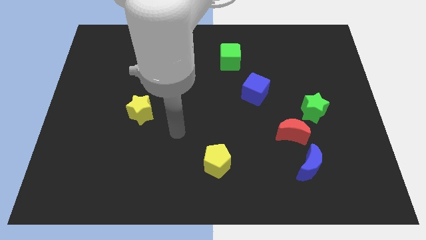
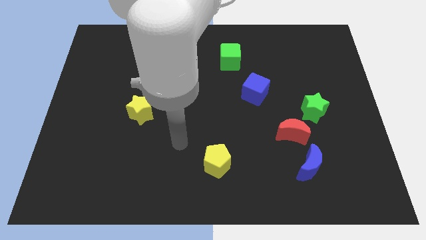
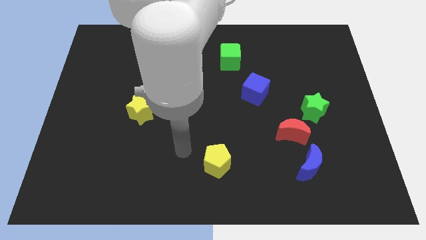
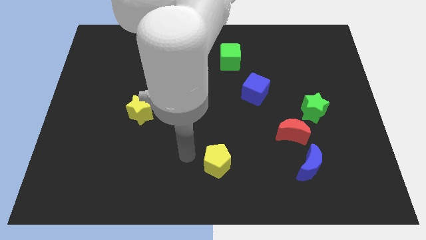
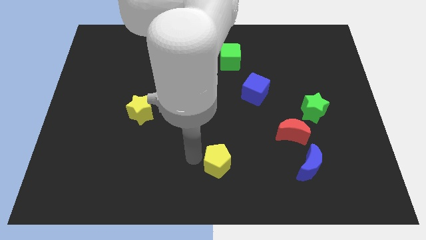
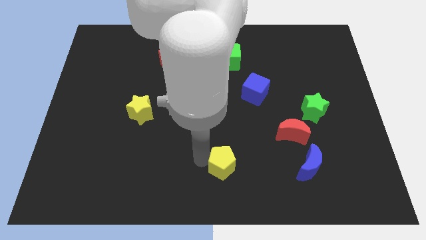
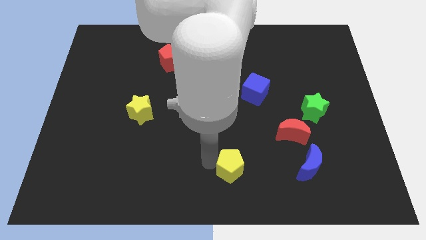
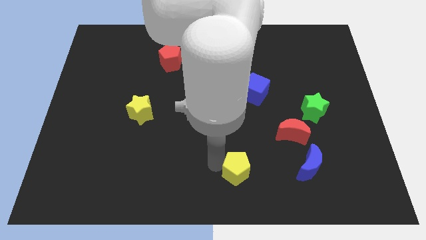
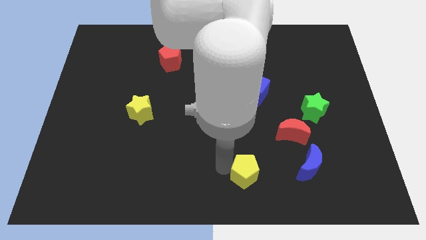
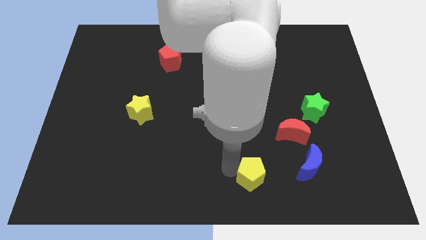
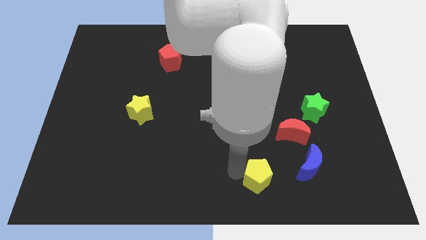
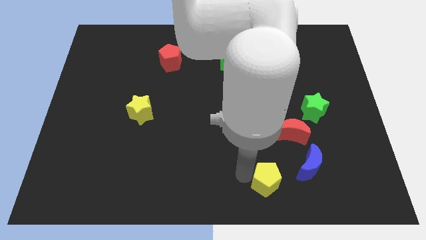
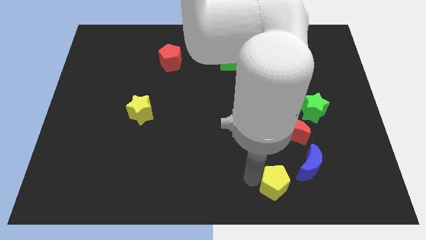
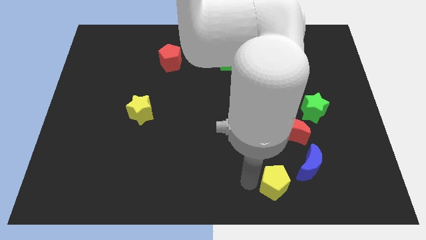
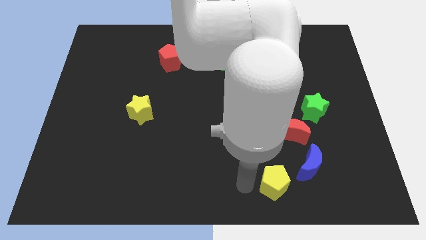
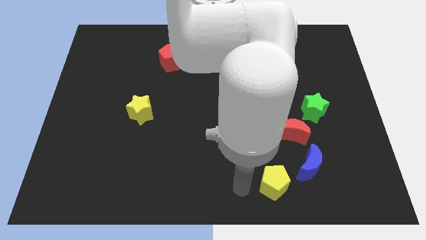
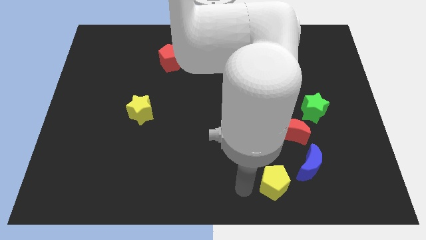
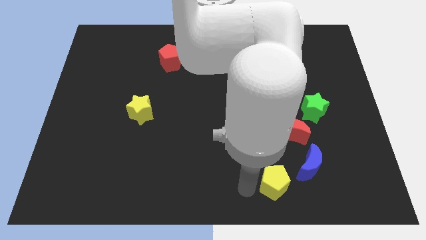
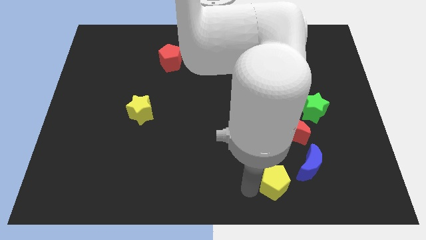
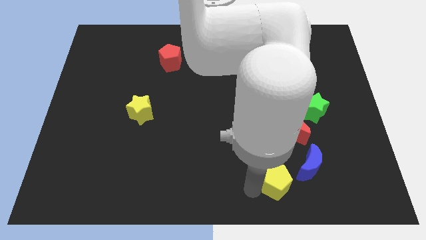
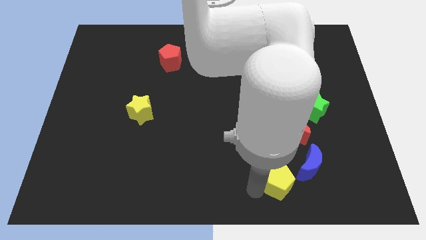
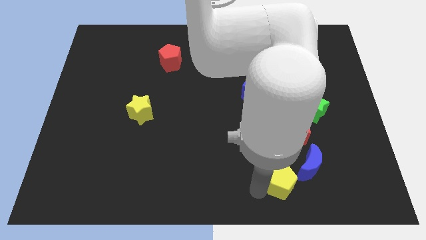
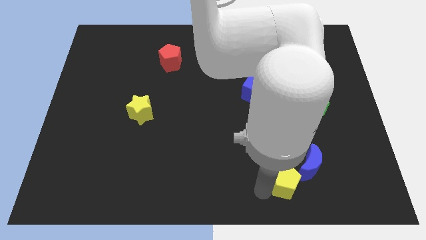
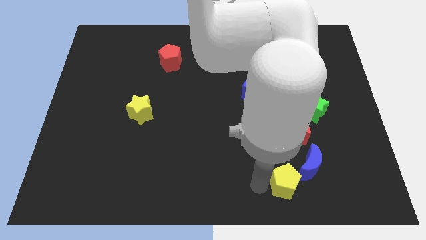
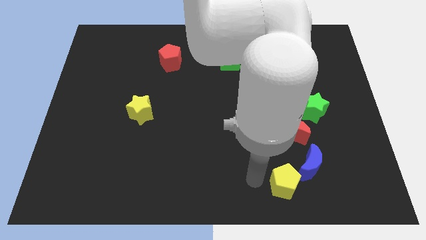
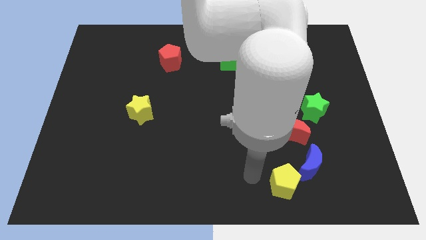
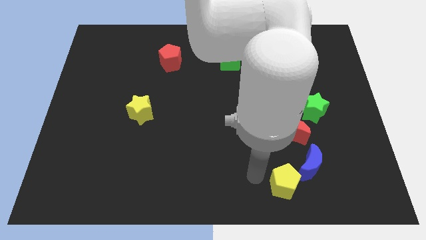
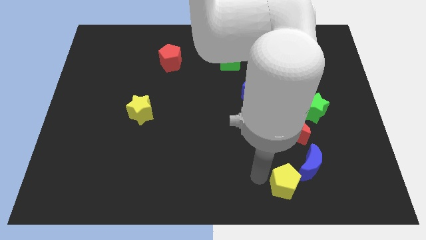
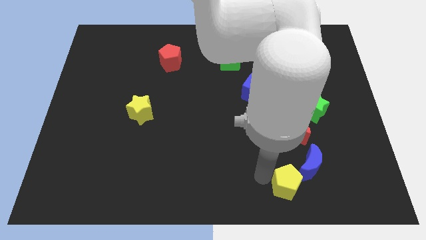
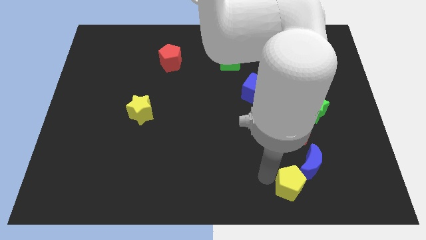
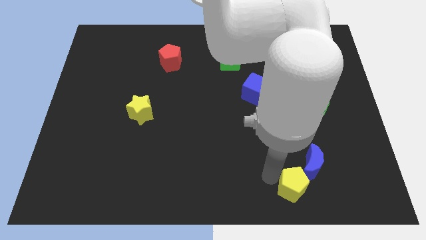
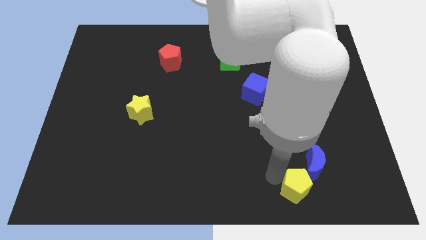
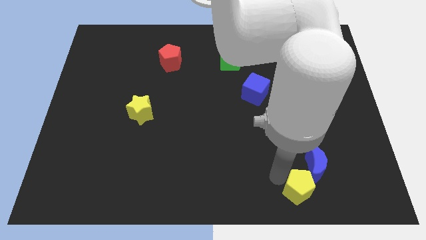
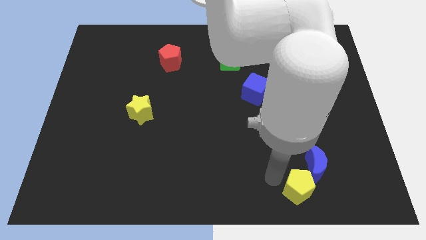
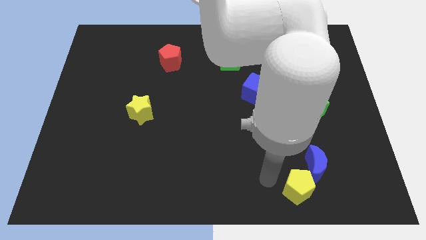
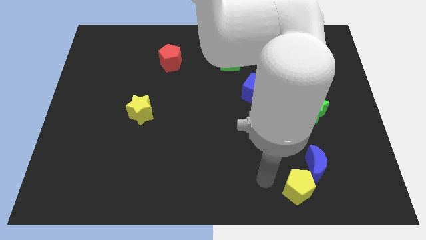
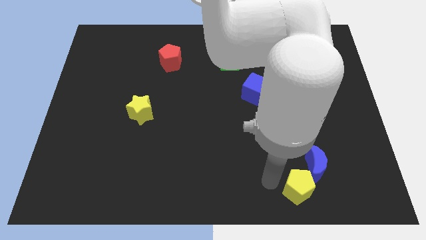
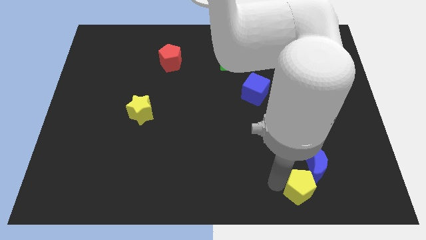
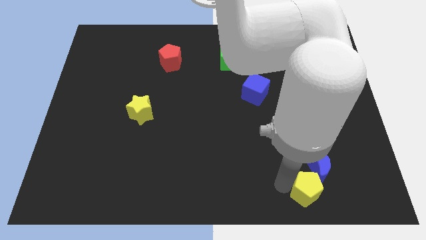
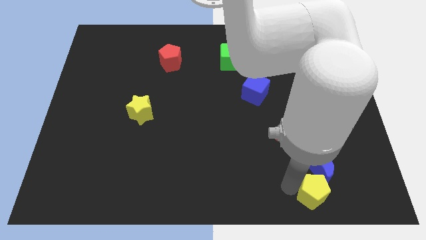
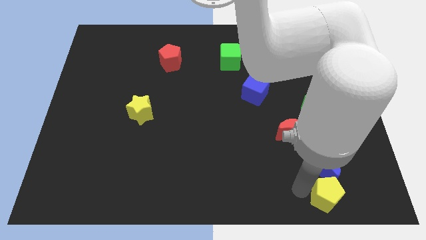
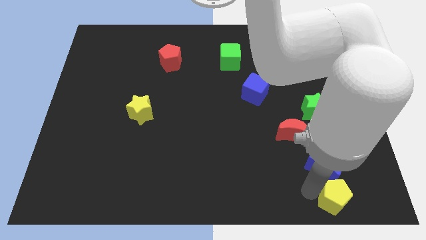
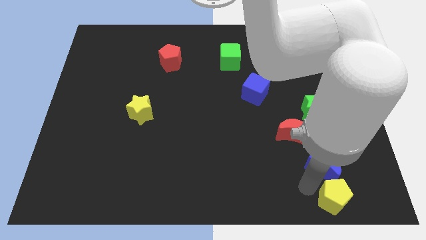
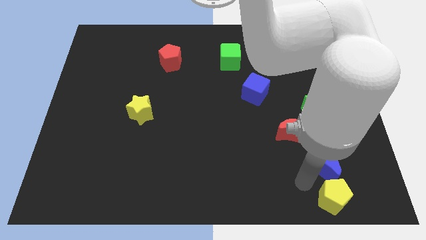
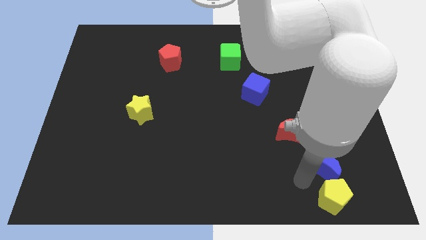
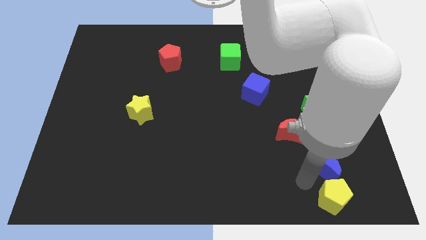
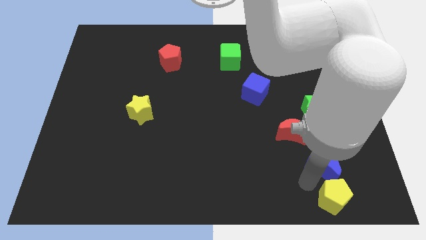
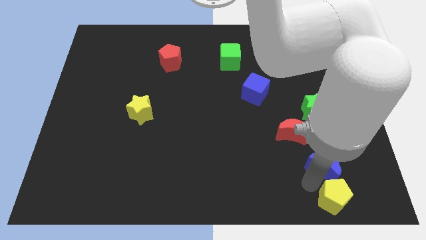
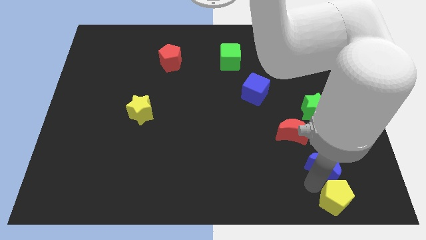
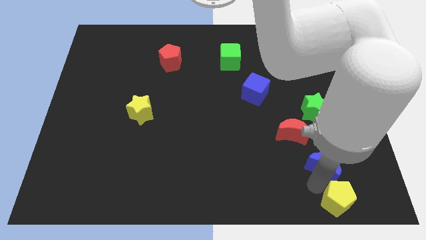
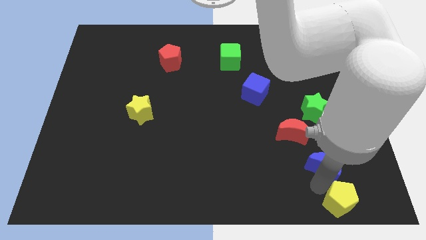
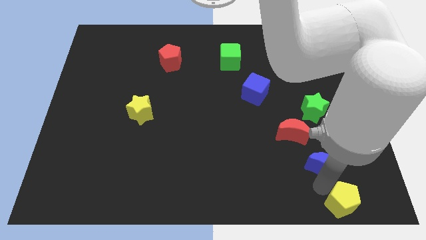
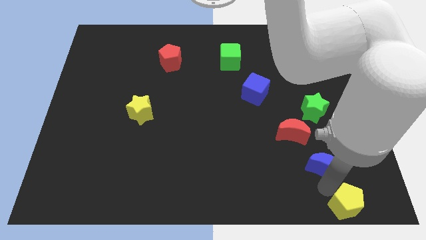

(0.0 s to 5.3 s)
push the yellow pentagon to the bottom right of the board
